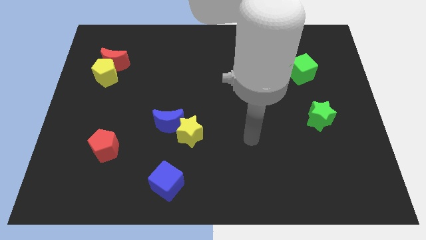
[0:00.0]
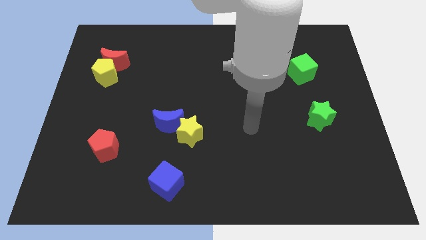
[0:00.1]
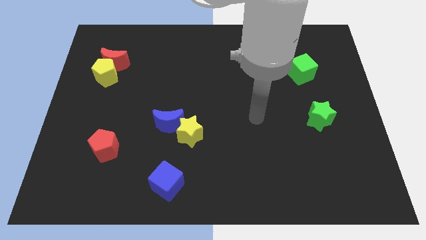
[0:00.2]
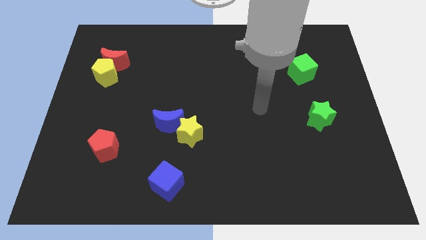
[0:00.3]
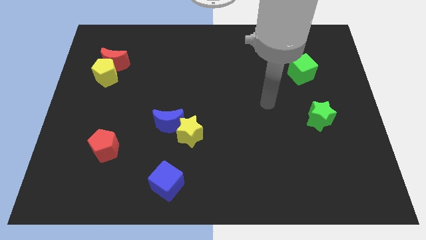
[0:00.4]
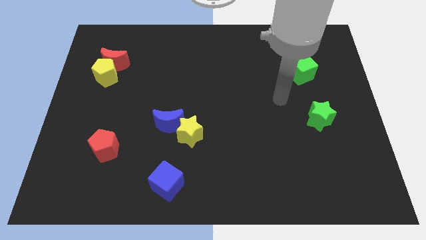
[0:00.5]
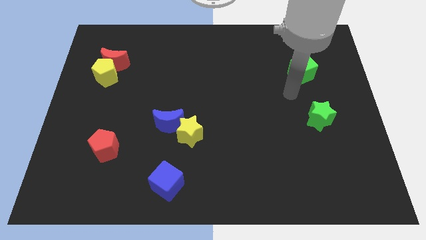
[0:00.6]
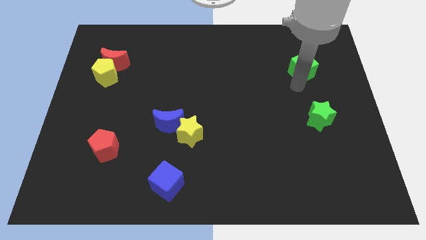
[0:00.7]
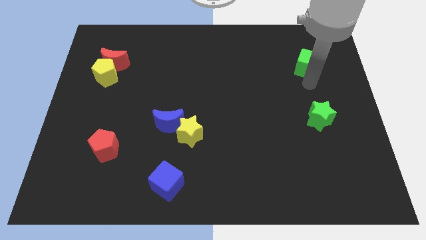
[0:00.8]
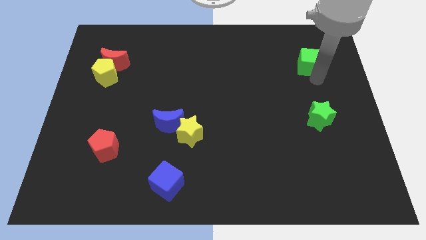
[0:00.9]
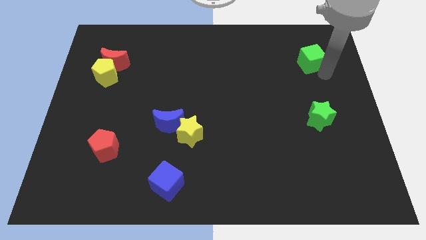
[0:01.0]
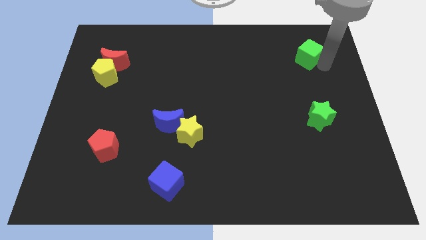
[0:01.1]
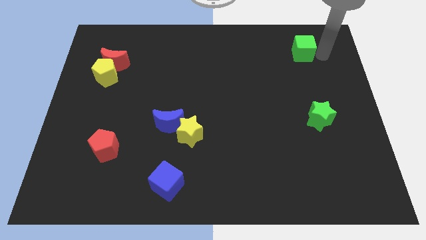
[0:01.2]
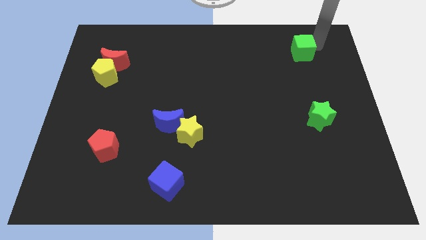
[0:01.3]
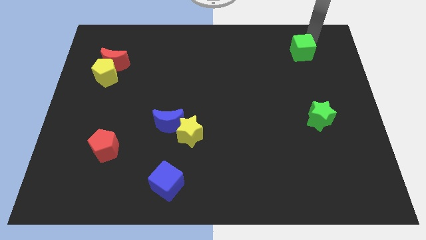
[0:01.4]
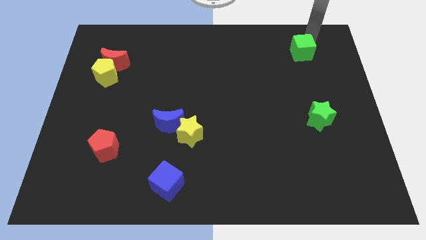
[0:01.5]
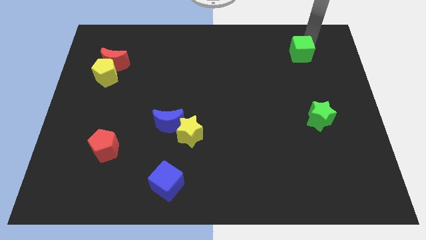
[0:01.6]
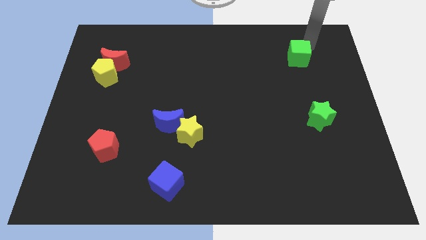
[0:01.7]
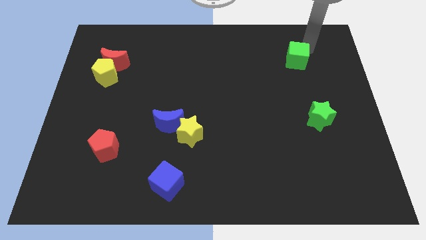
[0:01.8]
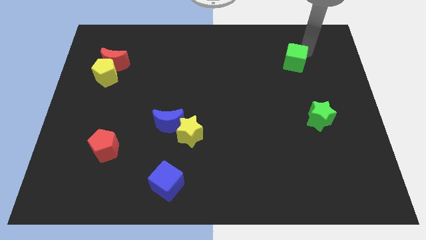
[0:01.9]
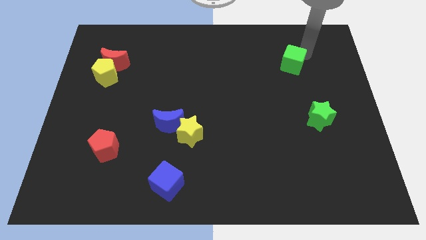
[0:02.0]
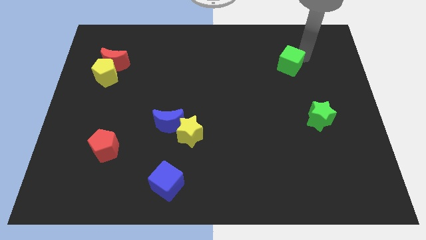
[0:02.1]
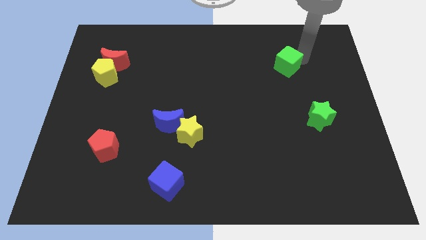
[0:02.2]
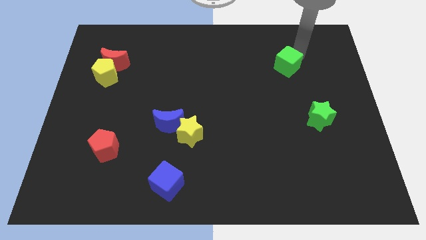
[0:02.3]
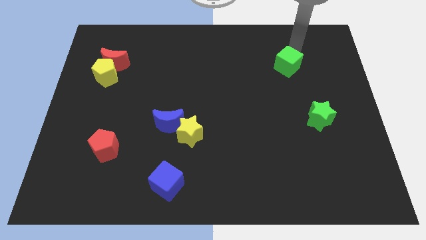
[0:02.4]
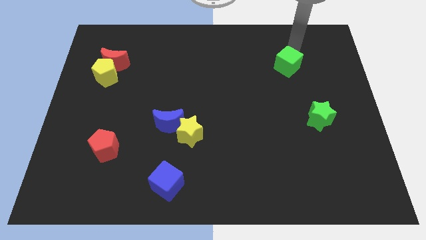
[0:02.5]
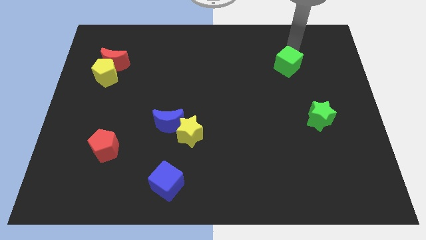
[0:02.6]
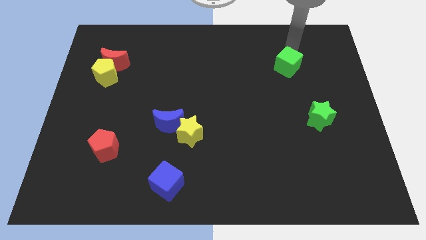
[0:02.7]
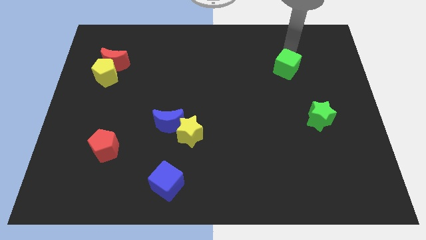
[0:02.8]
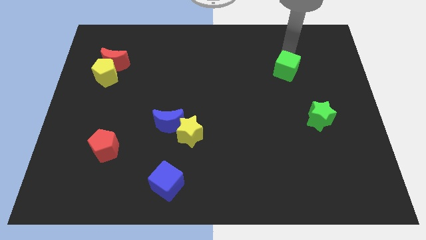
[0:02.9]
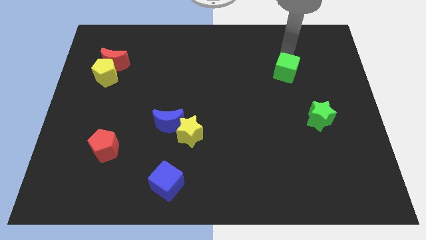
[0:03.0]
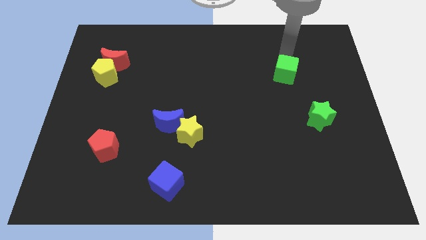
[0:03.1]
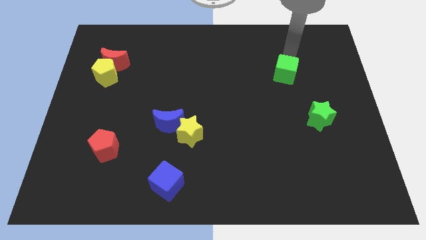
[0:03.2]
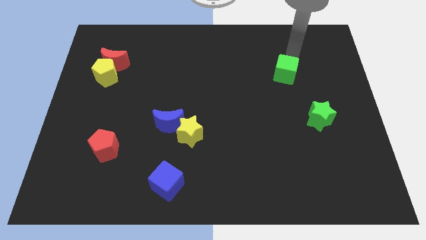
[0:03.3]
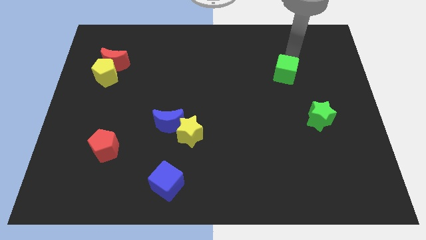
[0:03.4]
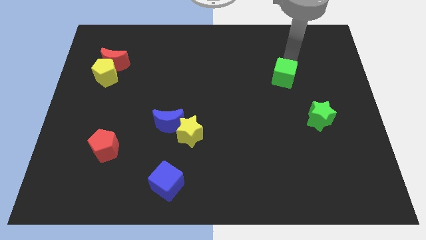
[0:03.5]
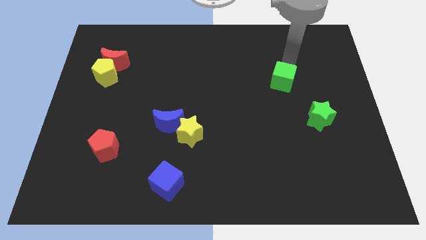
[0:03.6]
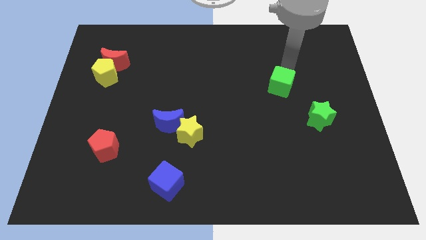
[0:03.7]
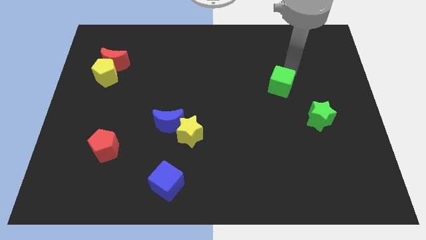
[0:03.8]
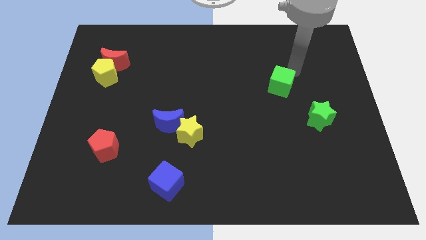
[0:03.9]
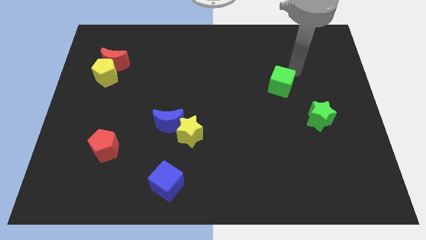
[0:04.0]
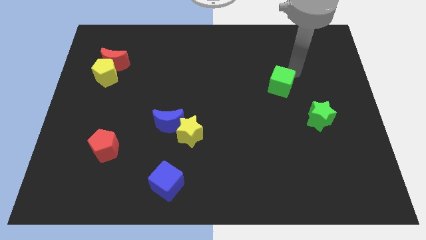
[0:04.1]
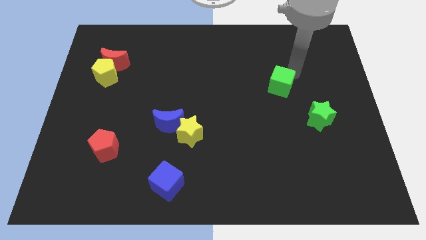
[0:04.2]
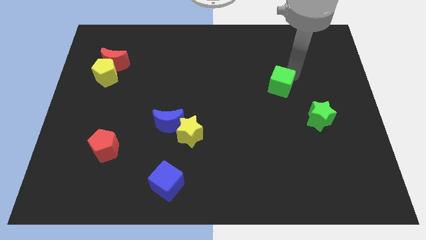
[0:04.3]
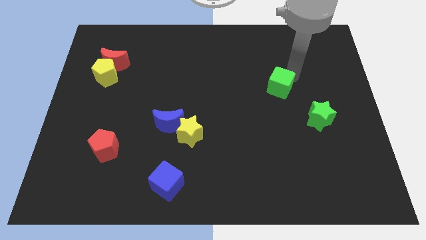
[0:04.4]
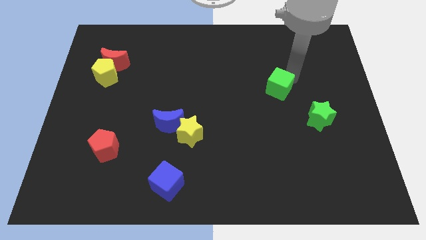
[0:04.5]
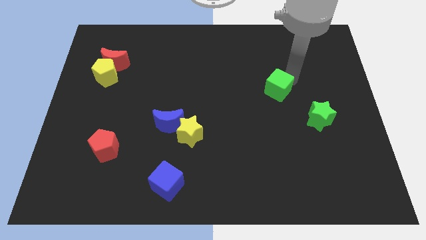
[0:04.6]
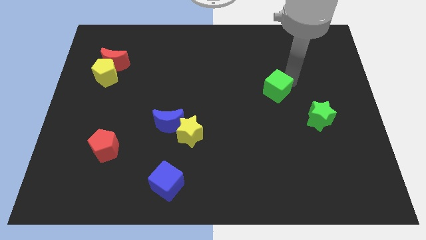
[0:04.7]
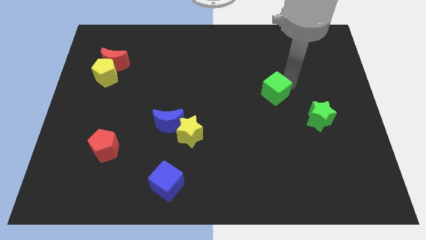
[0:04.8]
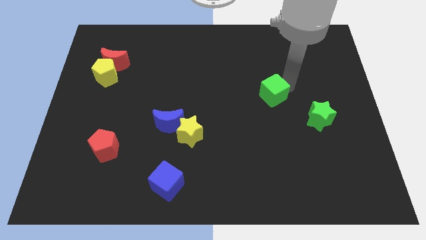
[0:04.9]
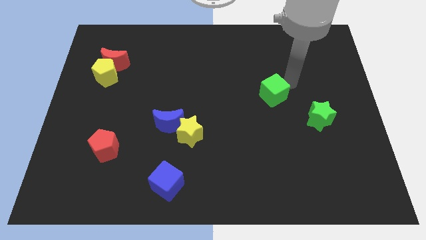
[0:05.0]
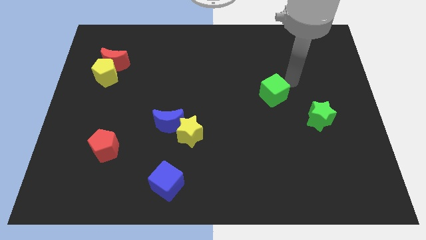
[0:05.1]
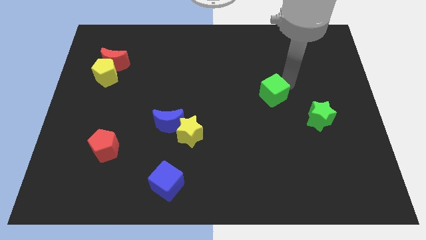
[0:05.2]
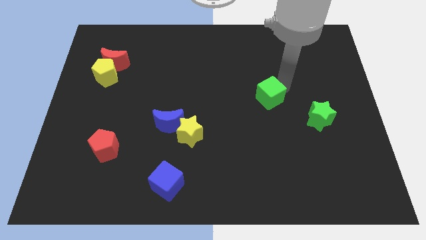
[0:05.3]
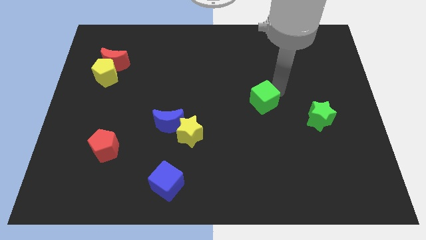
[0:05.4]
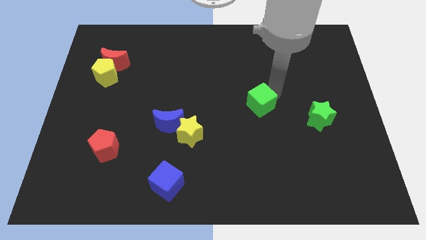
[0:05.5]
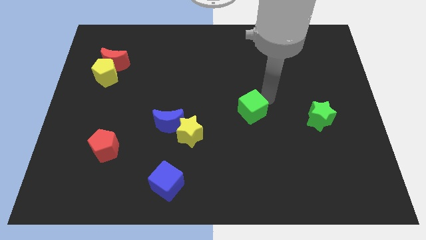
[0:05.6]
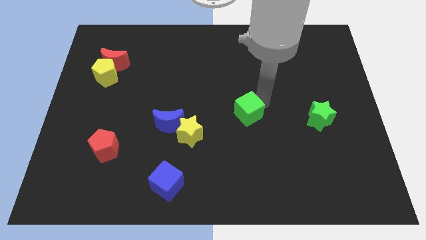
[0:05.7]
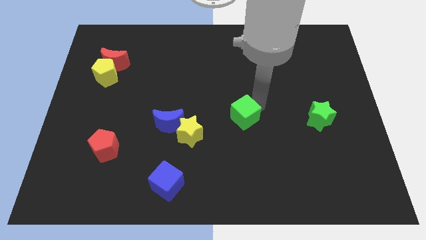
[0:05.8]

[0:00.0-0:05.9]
move the green cube down and to the left diagonally

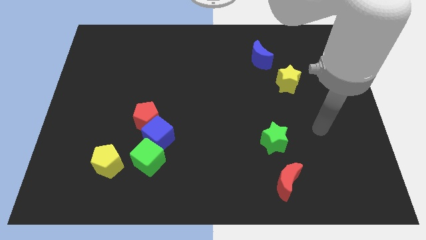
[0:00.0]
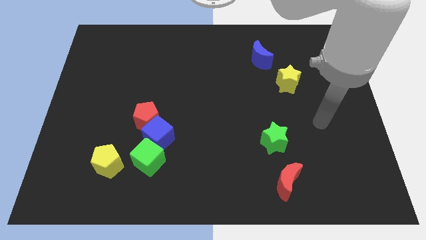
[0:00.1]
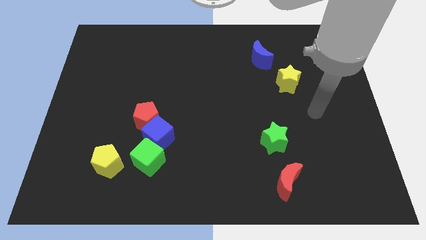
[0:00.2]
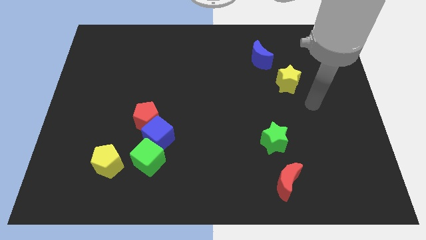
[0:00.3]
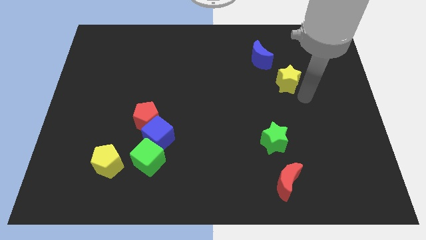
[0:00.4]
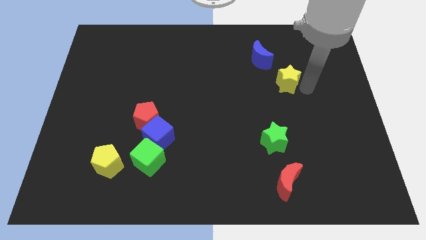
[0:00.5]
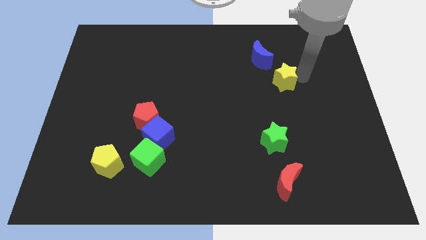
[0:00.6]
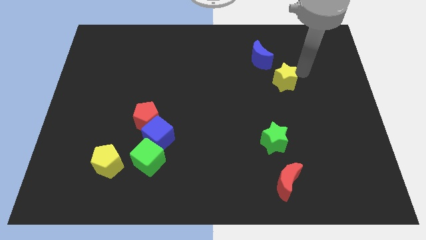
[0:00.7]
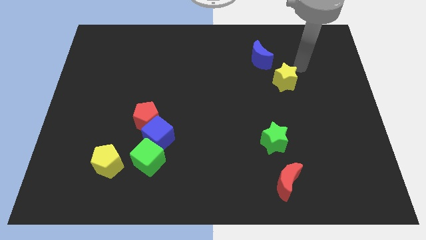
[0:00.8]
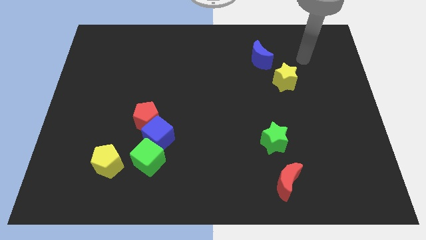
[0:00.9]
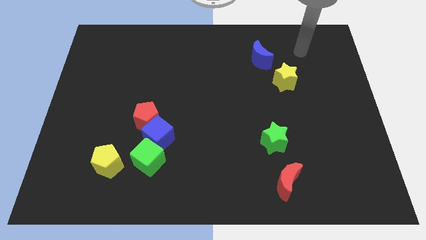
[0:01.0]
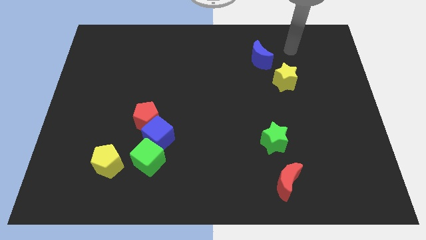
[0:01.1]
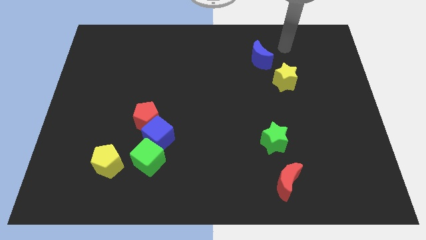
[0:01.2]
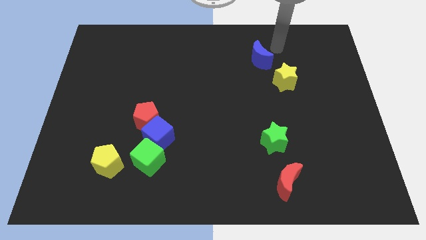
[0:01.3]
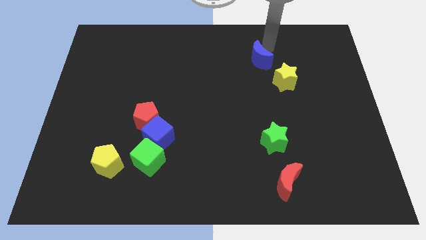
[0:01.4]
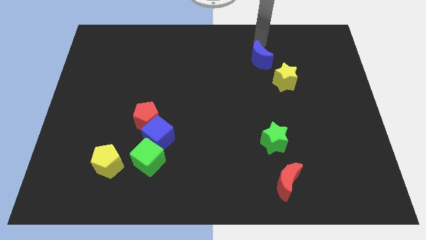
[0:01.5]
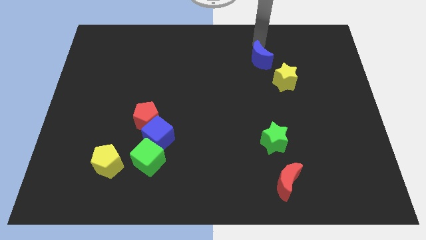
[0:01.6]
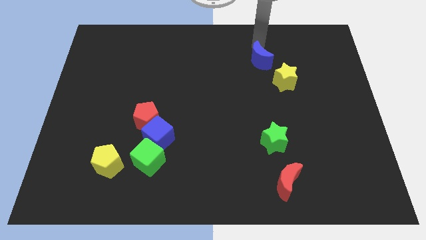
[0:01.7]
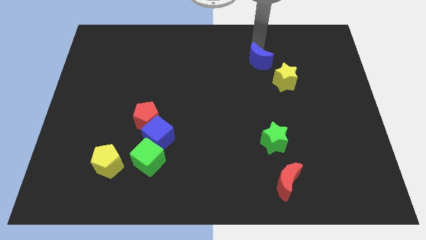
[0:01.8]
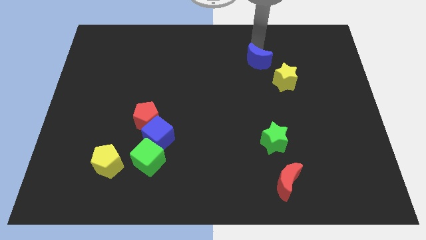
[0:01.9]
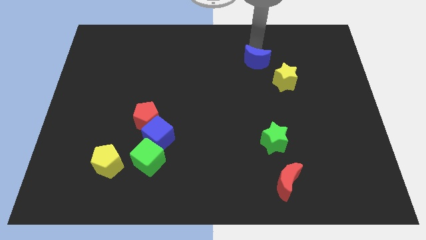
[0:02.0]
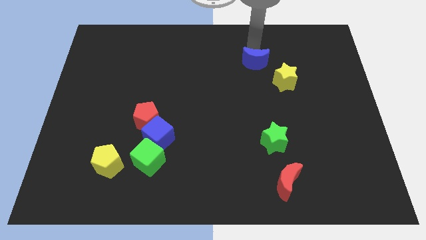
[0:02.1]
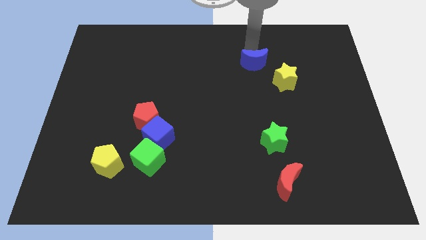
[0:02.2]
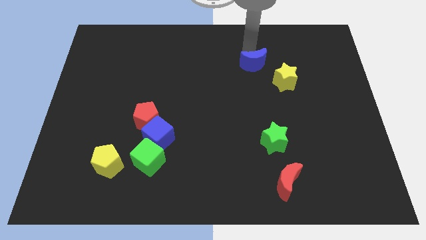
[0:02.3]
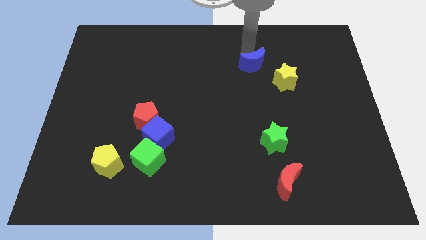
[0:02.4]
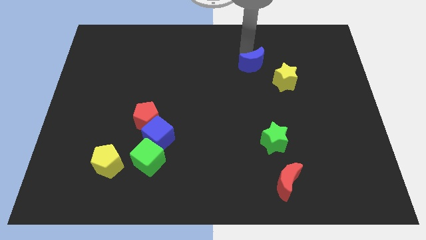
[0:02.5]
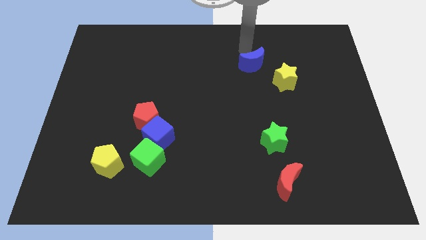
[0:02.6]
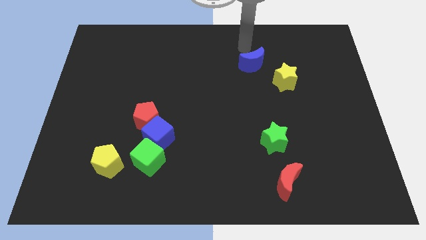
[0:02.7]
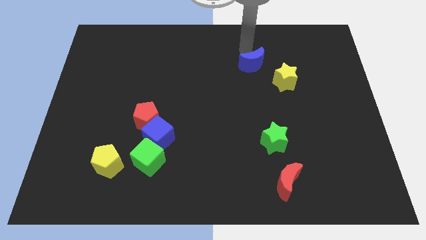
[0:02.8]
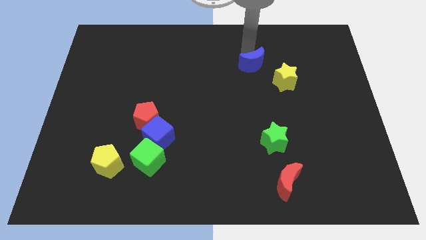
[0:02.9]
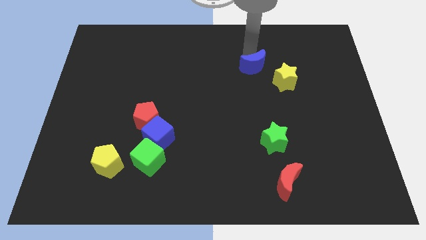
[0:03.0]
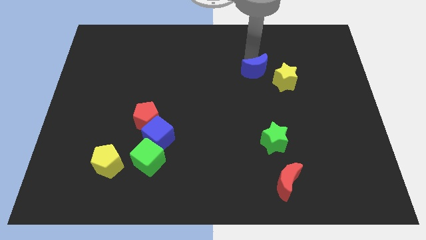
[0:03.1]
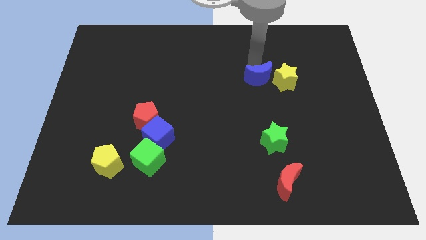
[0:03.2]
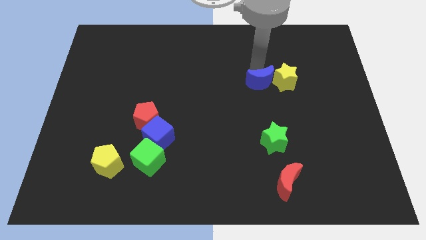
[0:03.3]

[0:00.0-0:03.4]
move the blue moon downwards slightly
